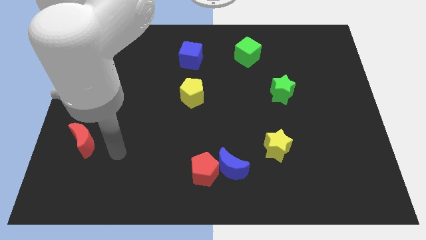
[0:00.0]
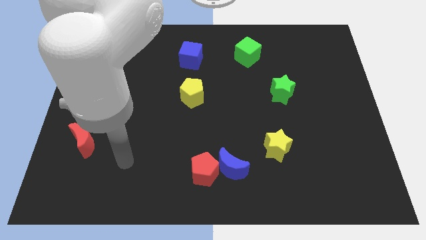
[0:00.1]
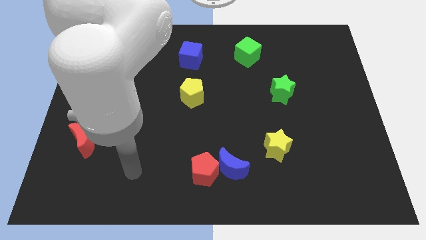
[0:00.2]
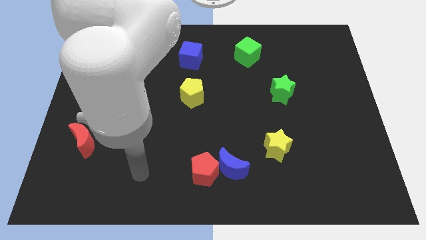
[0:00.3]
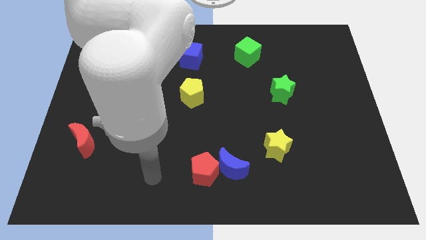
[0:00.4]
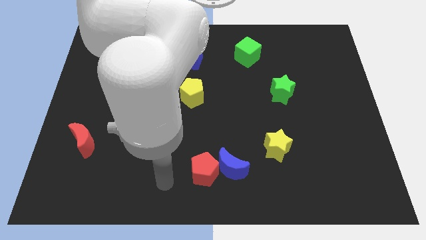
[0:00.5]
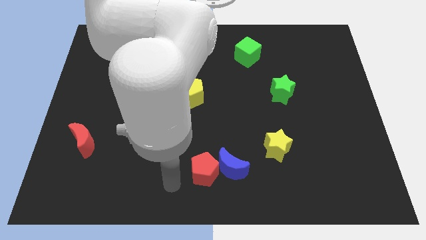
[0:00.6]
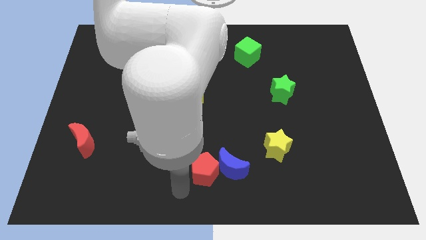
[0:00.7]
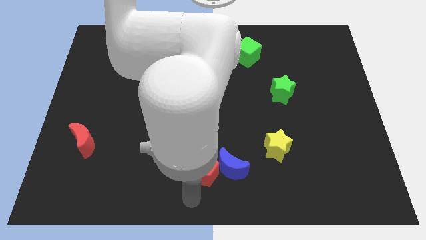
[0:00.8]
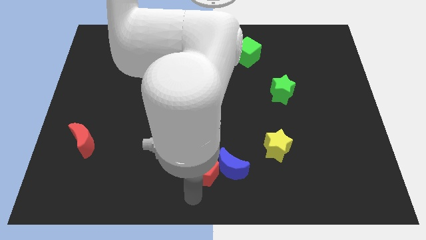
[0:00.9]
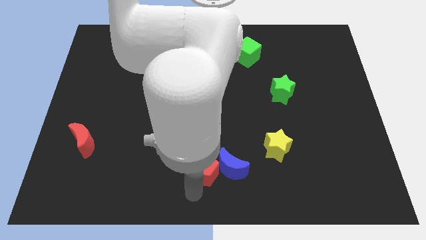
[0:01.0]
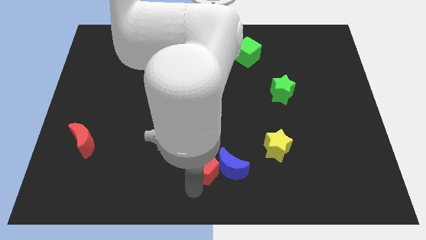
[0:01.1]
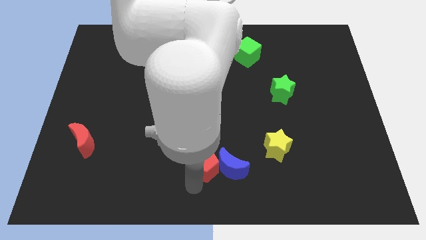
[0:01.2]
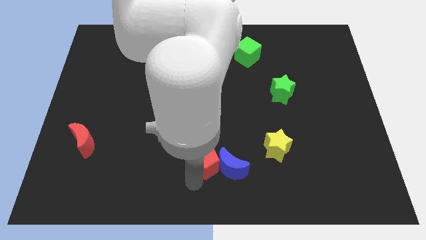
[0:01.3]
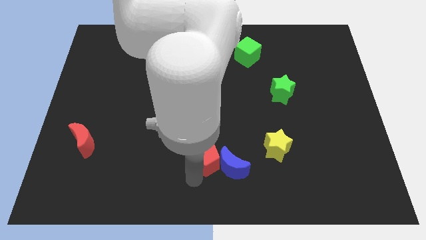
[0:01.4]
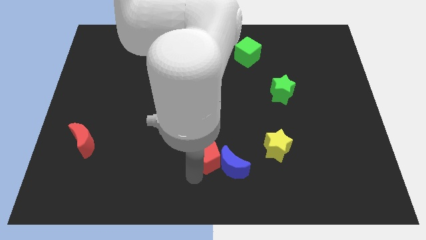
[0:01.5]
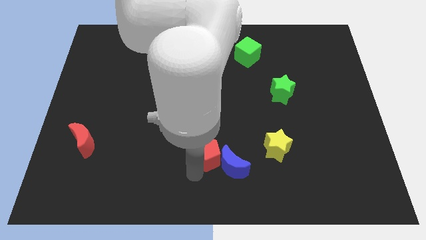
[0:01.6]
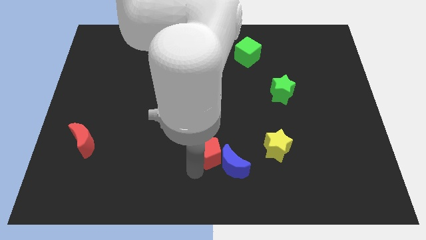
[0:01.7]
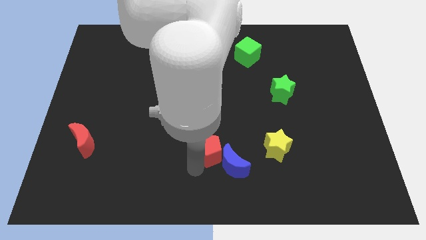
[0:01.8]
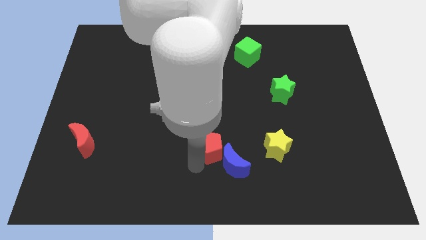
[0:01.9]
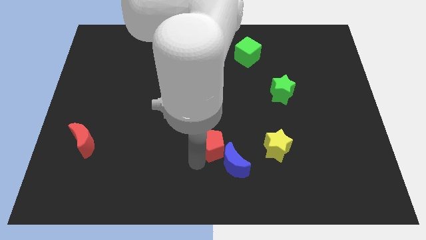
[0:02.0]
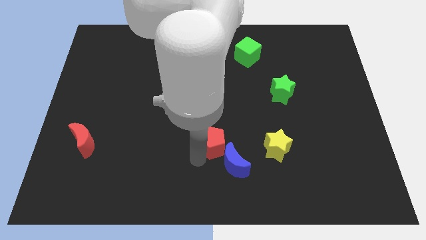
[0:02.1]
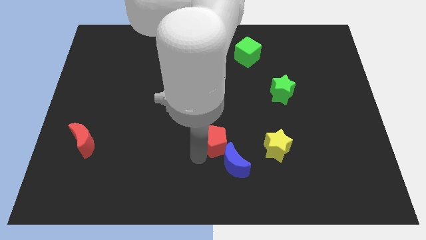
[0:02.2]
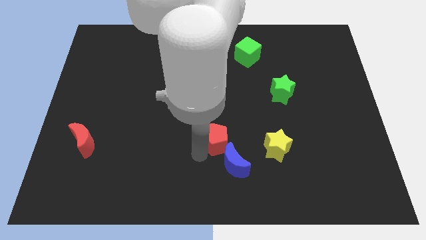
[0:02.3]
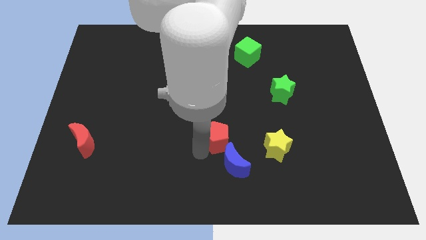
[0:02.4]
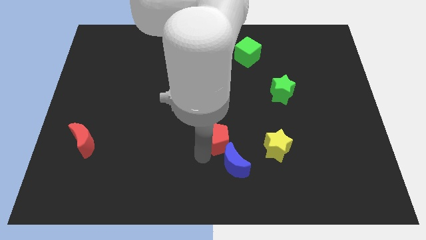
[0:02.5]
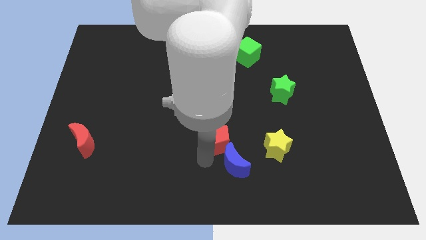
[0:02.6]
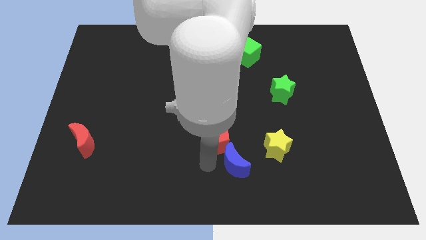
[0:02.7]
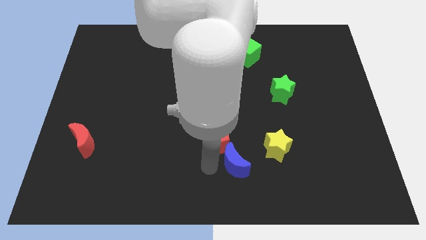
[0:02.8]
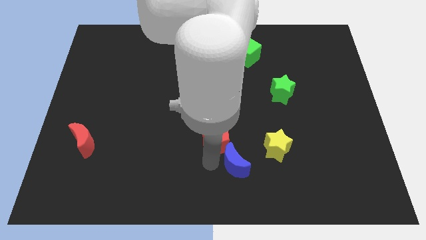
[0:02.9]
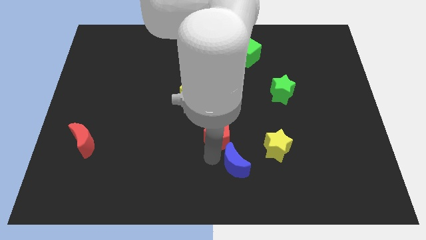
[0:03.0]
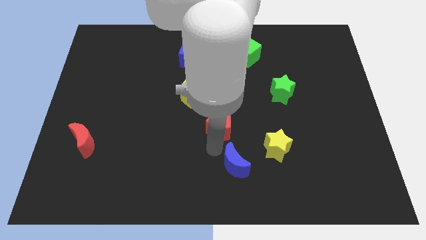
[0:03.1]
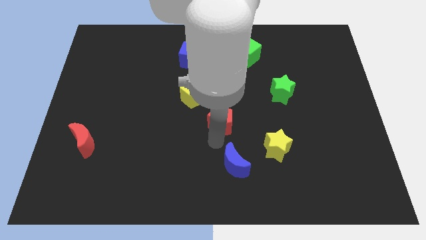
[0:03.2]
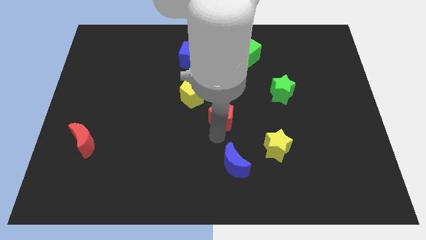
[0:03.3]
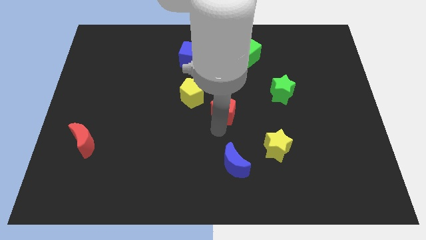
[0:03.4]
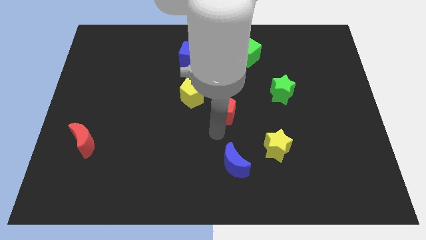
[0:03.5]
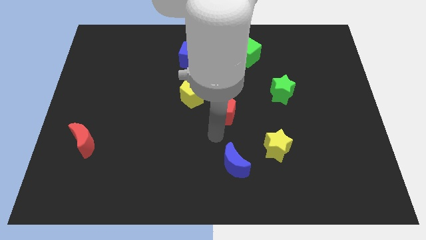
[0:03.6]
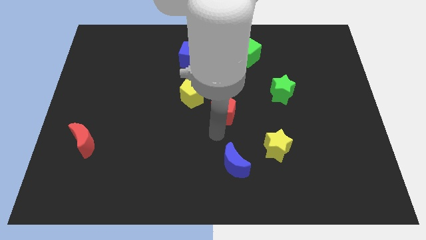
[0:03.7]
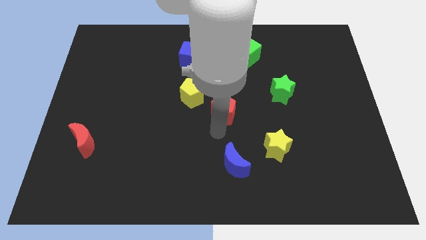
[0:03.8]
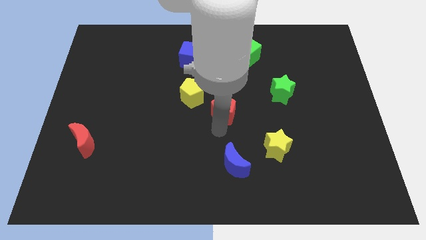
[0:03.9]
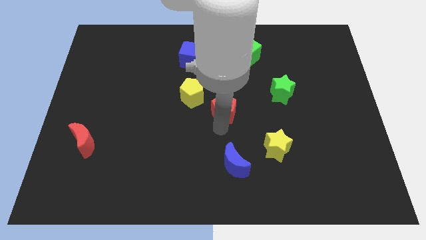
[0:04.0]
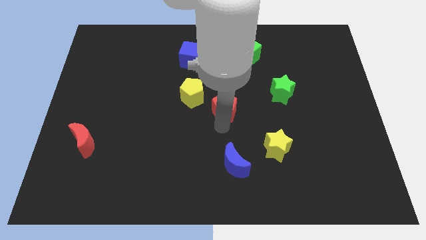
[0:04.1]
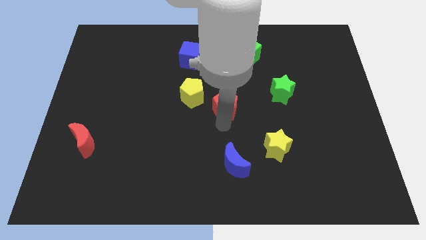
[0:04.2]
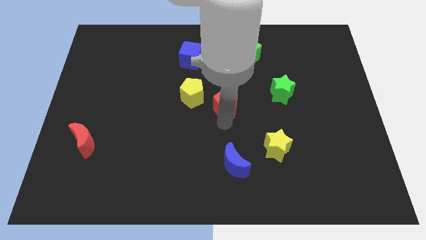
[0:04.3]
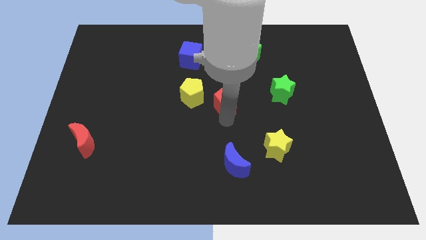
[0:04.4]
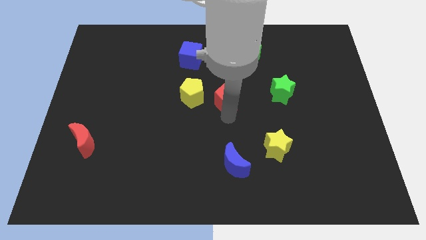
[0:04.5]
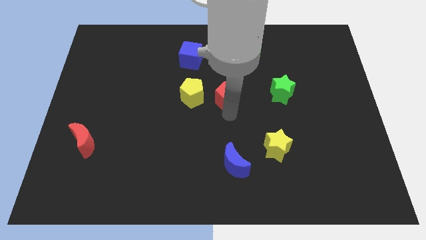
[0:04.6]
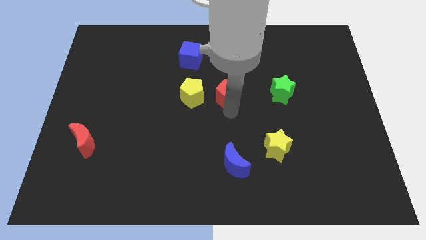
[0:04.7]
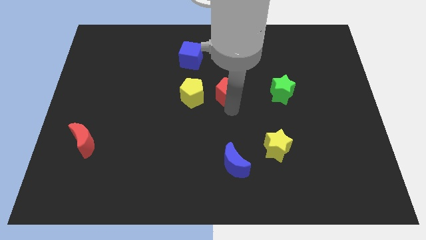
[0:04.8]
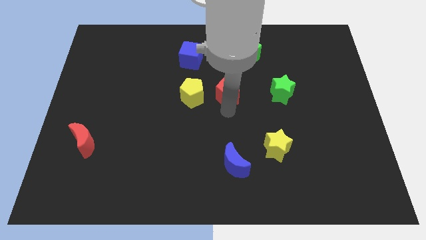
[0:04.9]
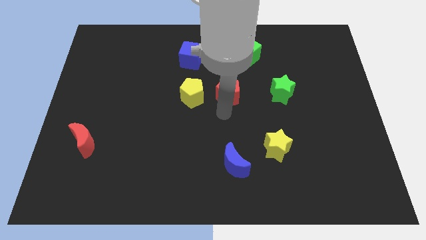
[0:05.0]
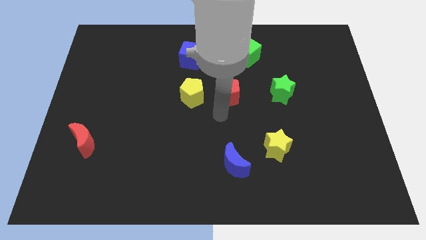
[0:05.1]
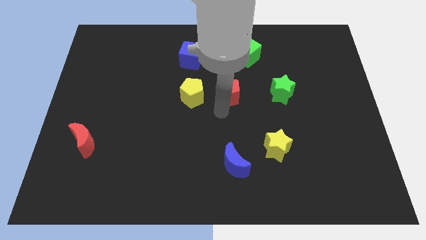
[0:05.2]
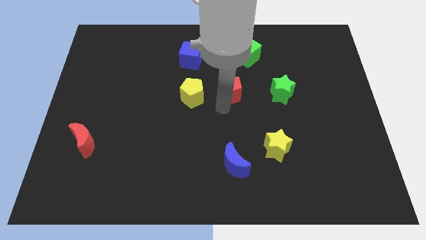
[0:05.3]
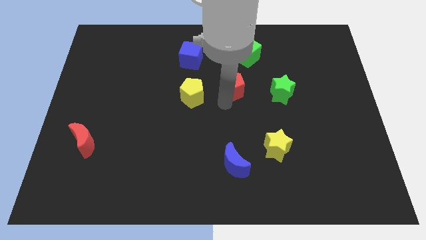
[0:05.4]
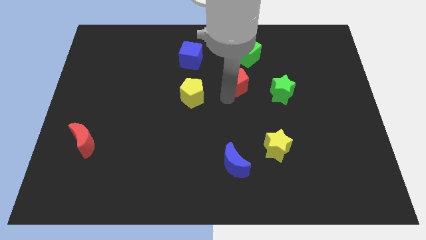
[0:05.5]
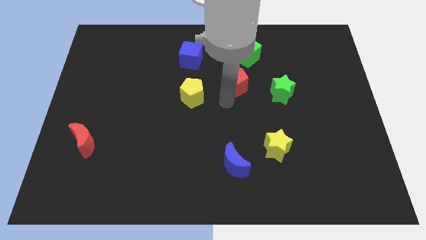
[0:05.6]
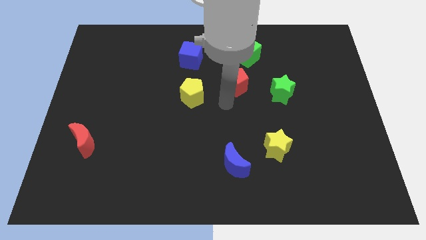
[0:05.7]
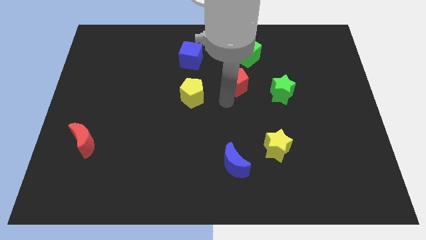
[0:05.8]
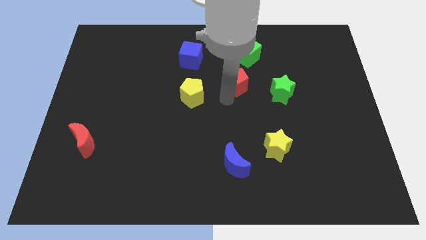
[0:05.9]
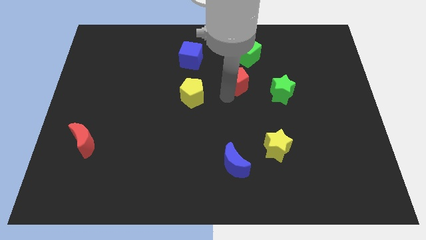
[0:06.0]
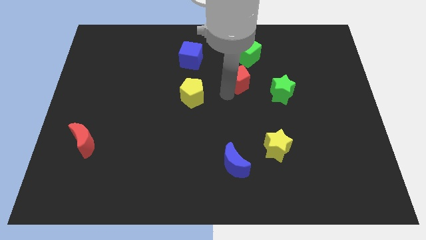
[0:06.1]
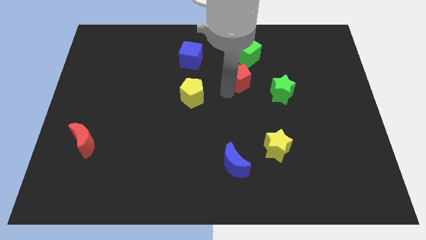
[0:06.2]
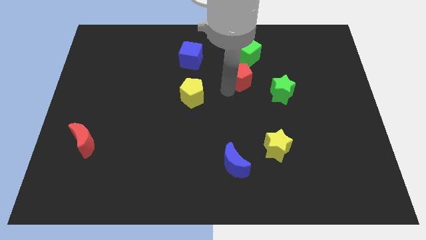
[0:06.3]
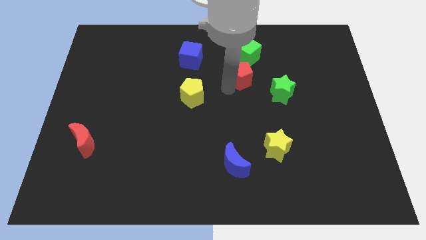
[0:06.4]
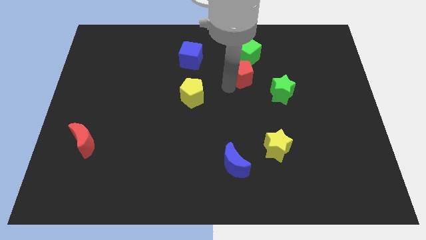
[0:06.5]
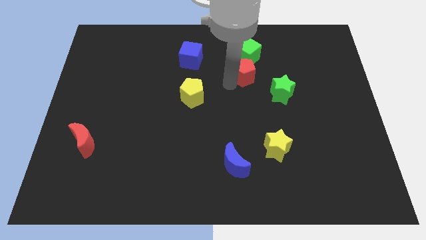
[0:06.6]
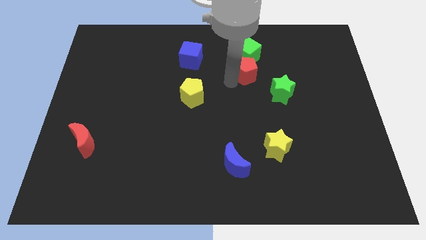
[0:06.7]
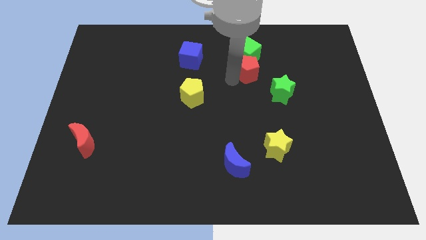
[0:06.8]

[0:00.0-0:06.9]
slide the red pentagon close to the green cube

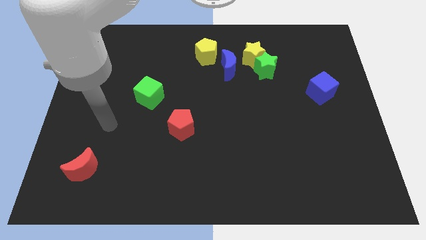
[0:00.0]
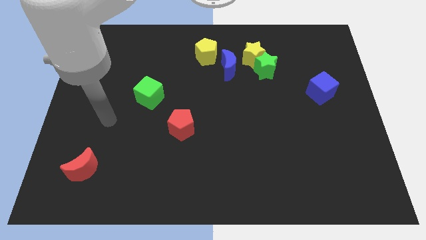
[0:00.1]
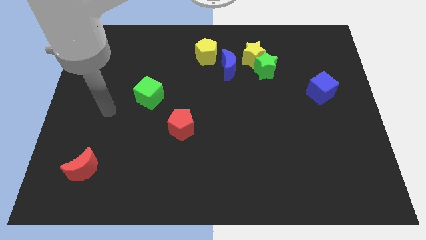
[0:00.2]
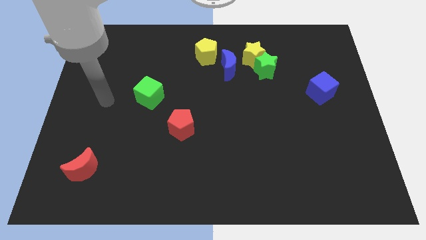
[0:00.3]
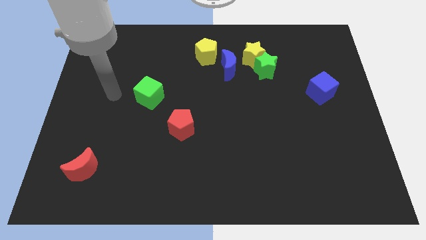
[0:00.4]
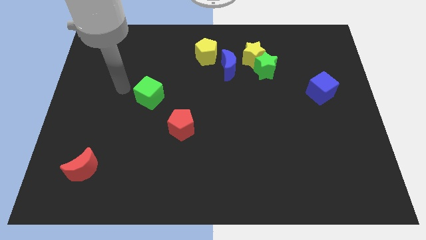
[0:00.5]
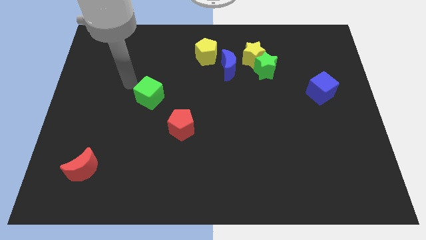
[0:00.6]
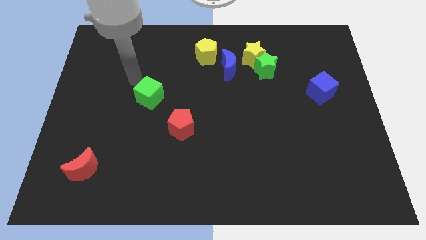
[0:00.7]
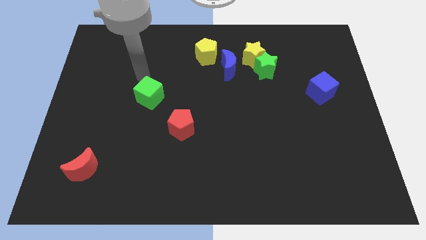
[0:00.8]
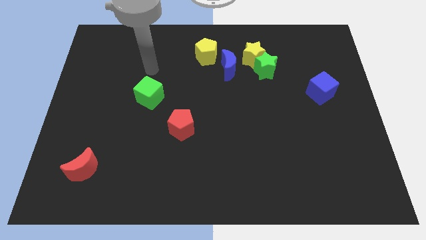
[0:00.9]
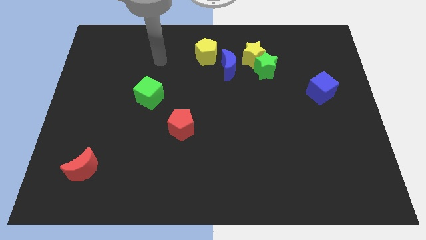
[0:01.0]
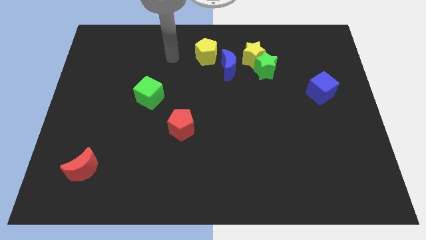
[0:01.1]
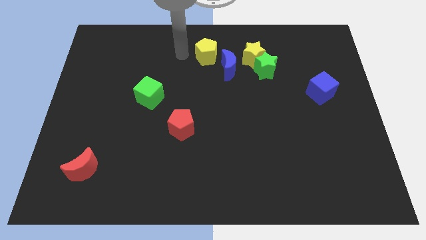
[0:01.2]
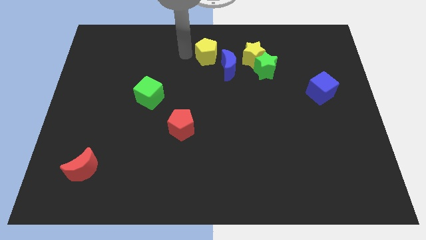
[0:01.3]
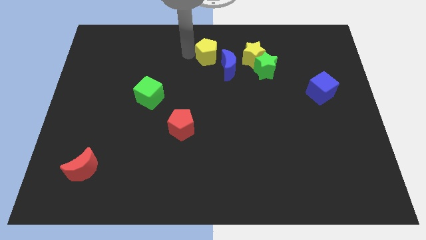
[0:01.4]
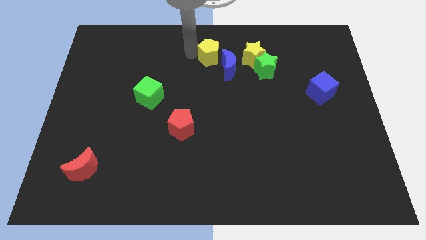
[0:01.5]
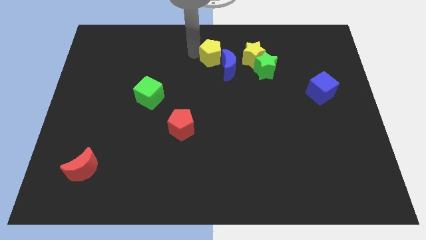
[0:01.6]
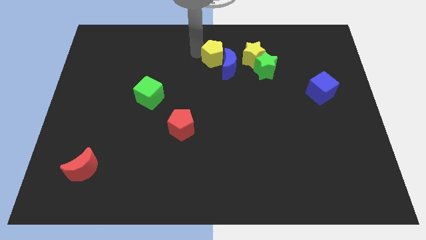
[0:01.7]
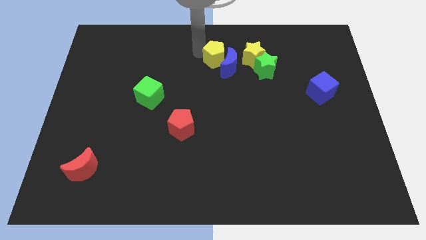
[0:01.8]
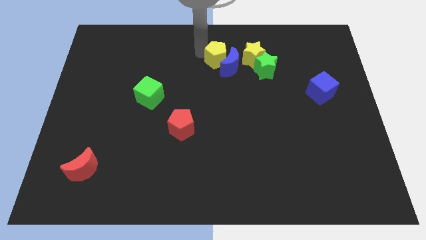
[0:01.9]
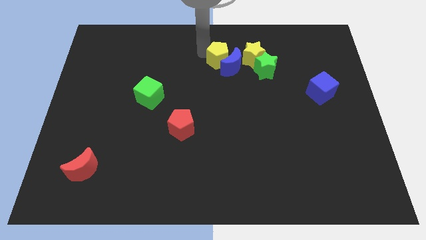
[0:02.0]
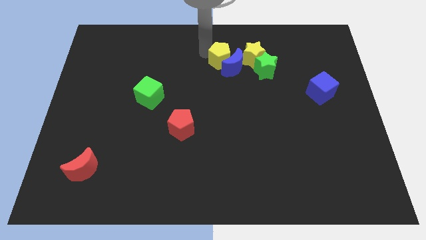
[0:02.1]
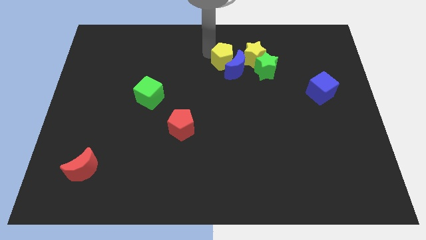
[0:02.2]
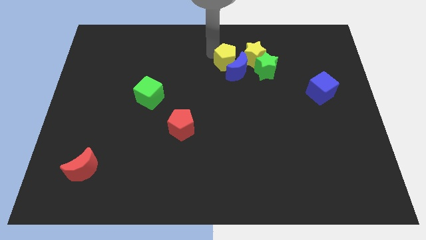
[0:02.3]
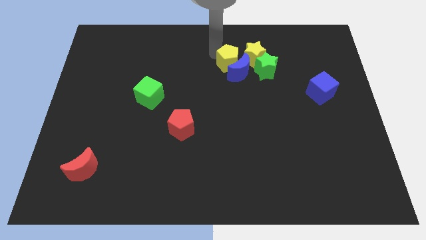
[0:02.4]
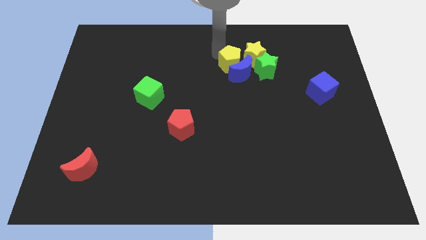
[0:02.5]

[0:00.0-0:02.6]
push the yellow pentagon next to the yellow star
